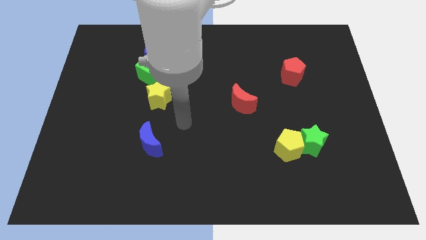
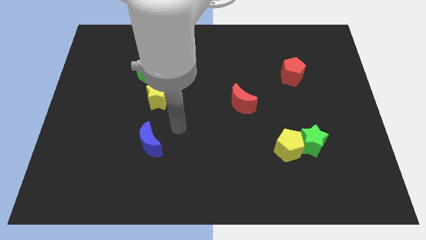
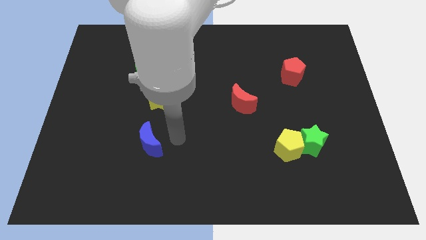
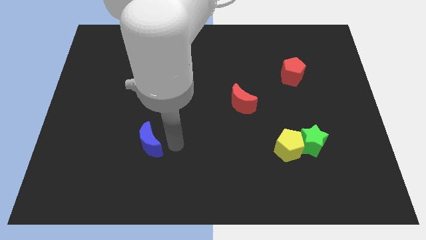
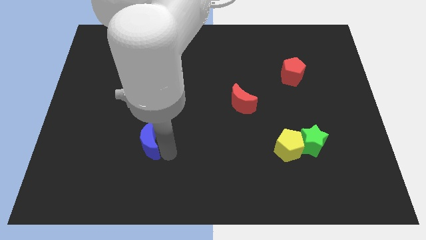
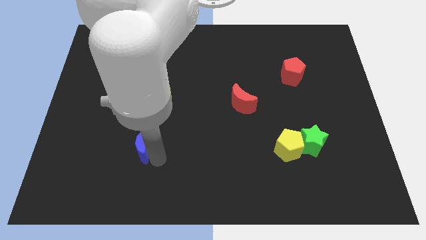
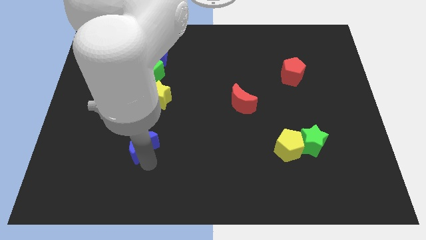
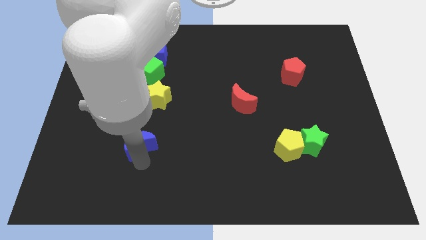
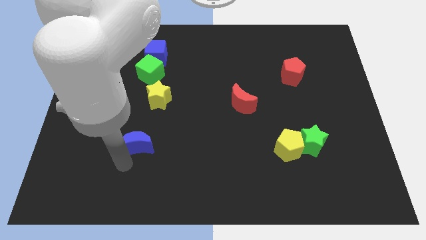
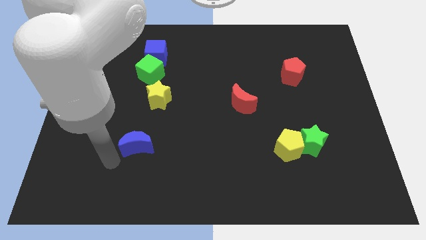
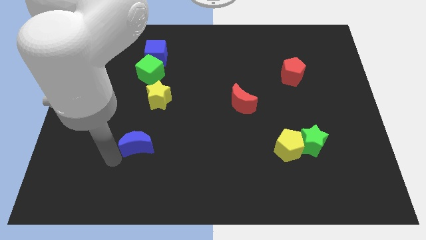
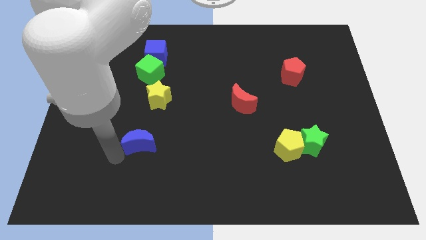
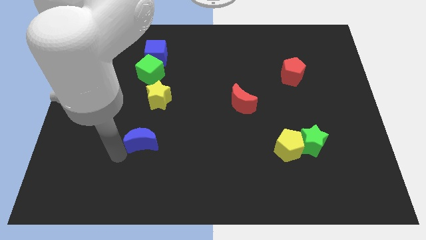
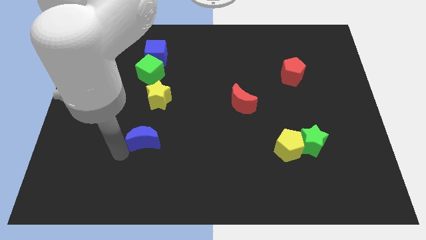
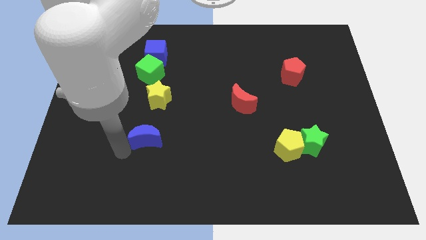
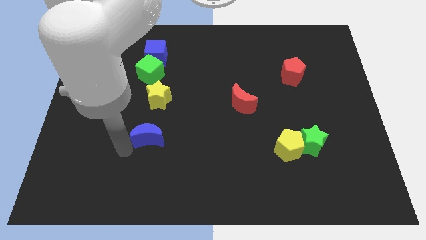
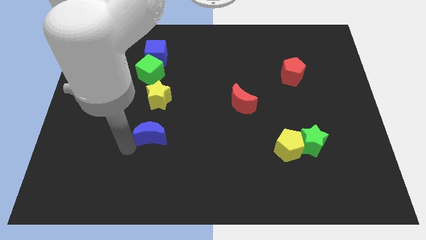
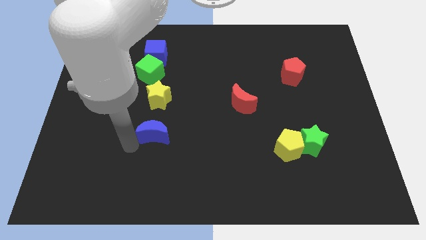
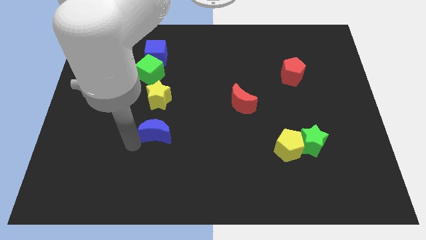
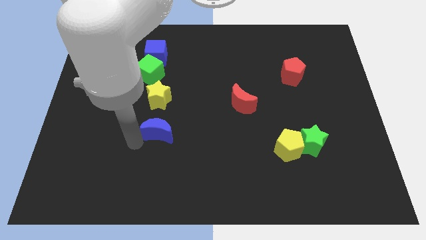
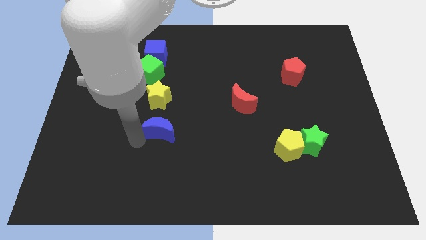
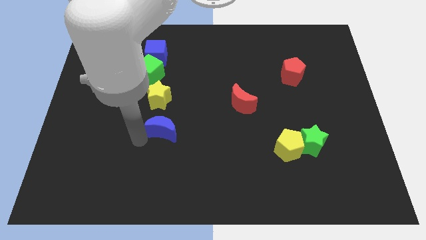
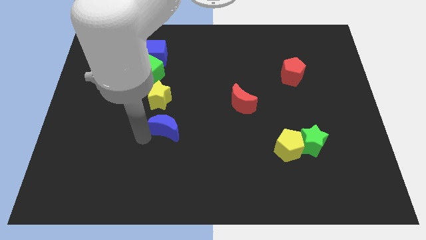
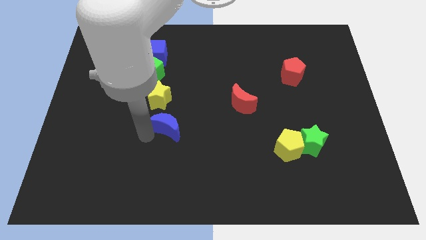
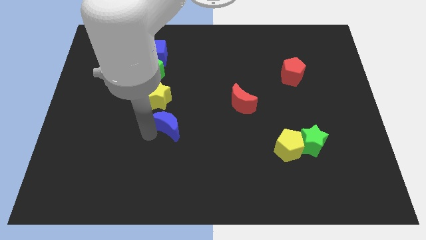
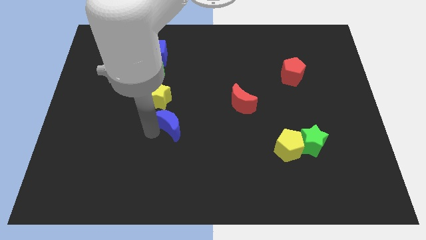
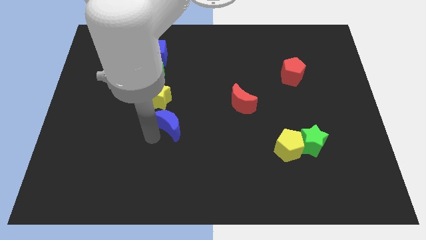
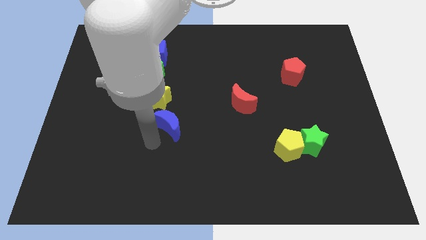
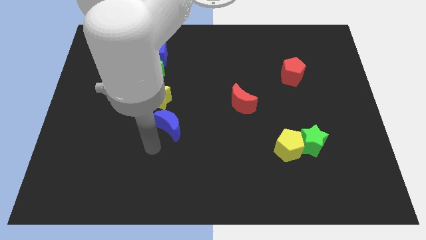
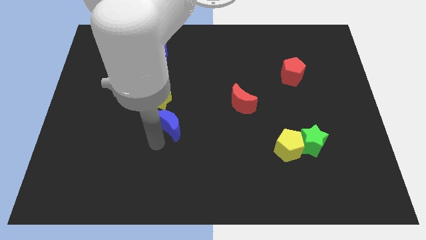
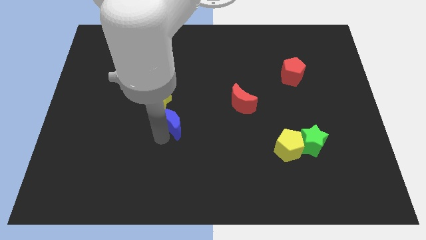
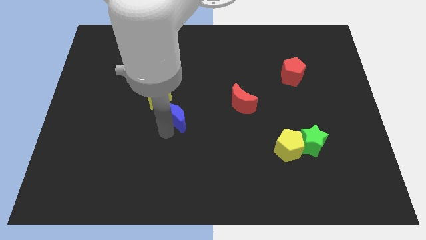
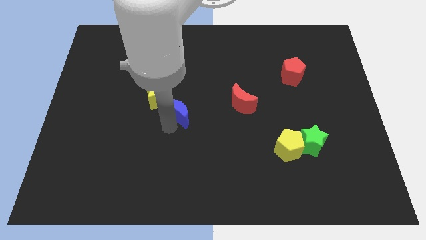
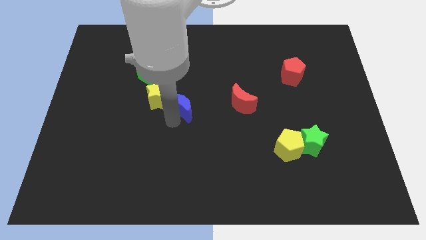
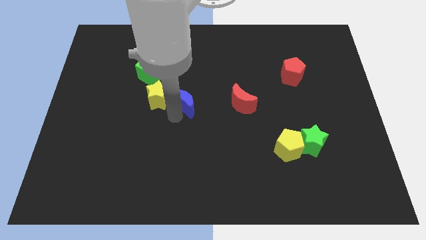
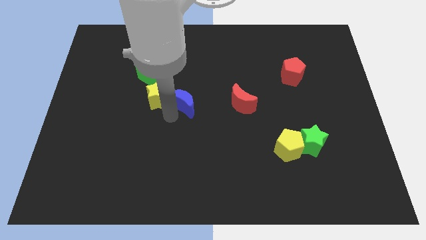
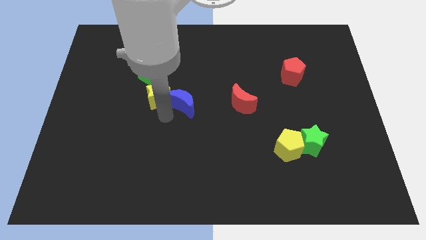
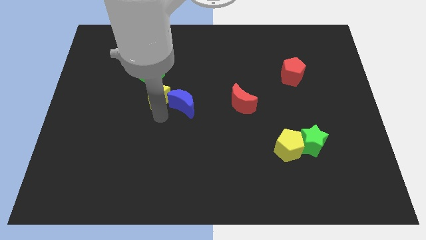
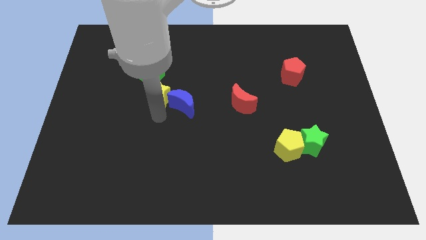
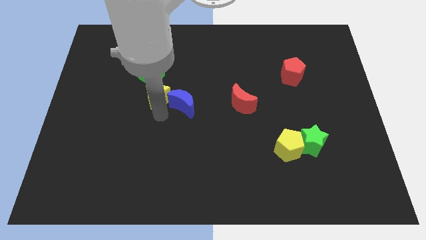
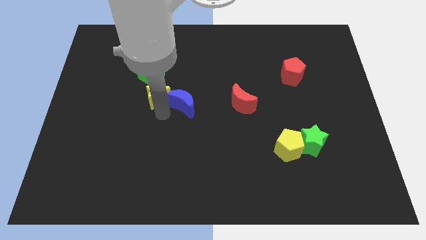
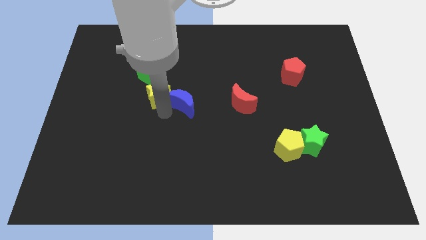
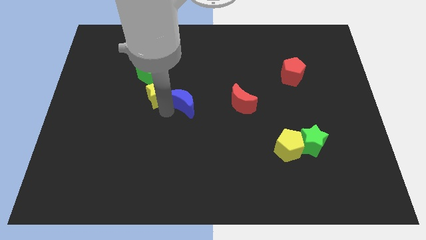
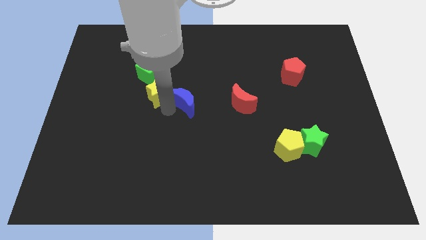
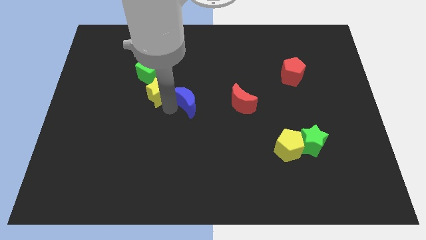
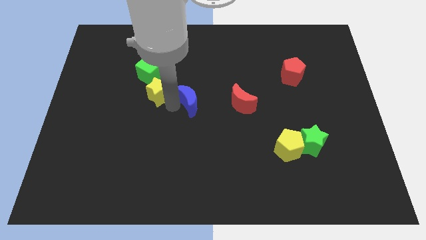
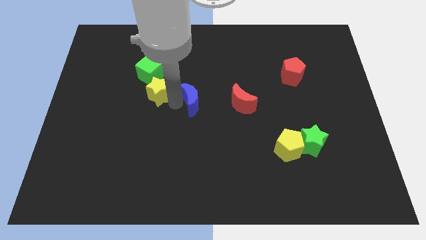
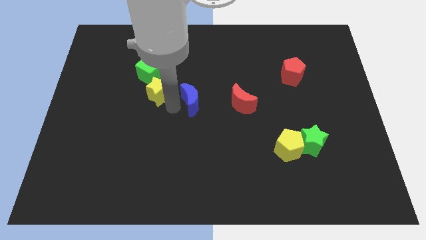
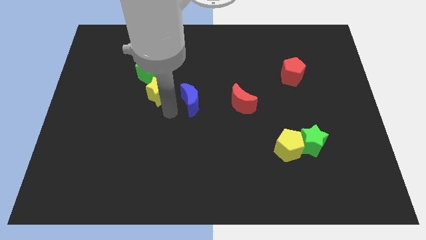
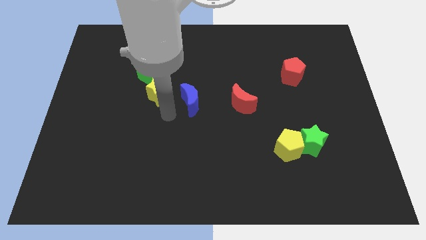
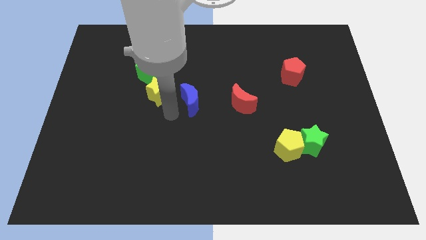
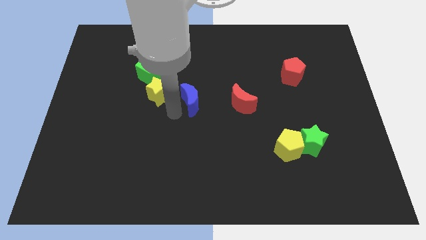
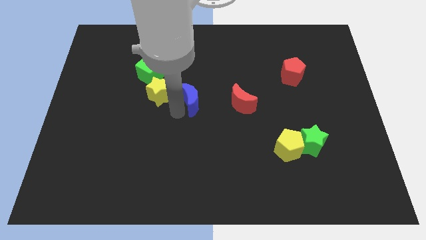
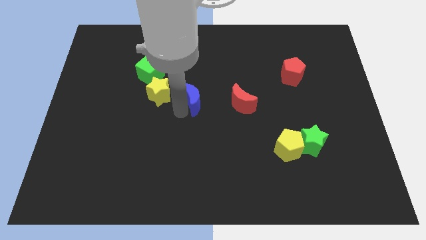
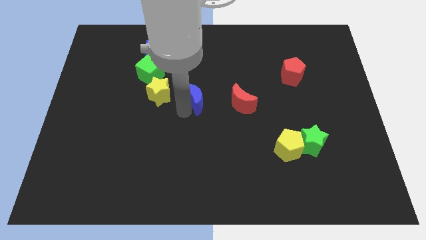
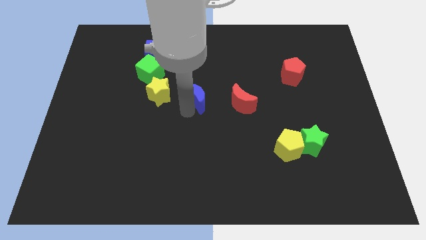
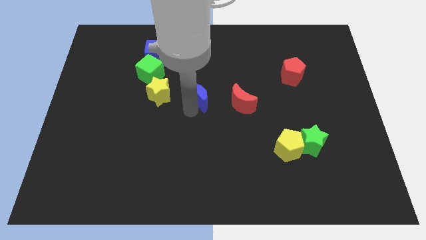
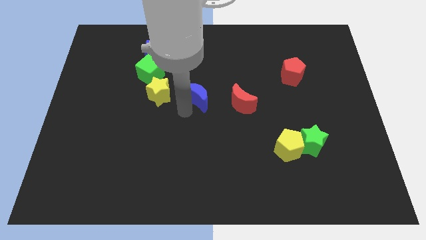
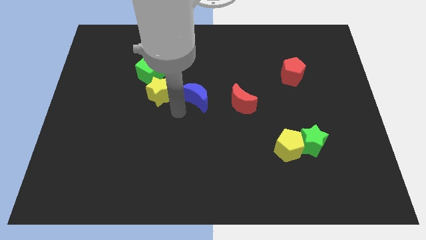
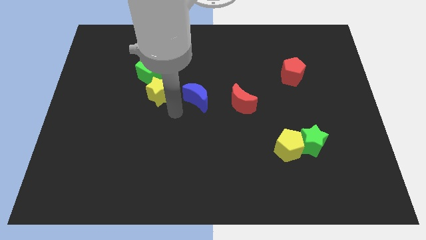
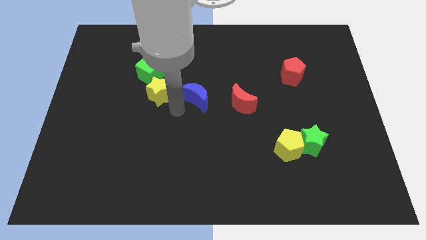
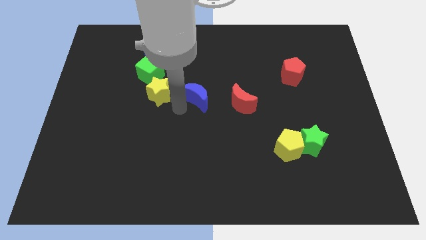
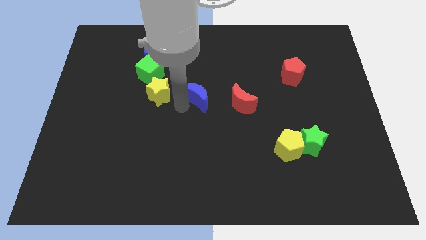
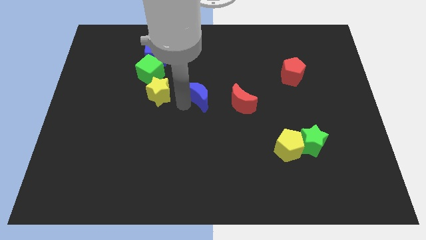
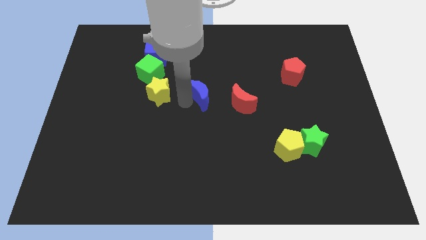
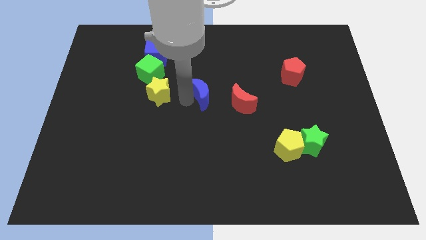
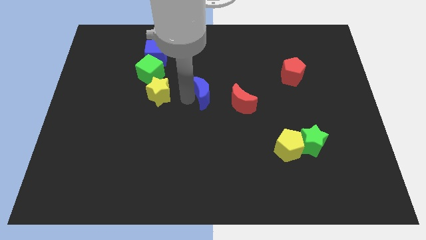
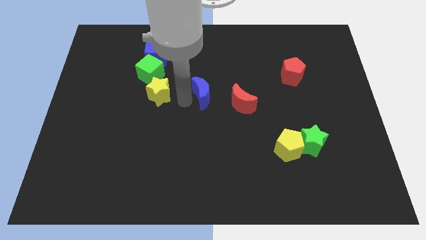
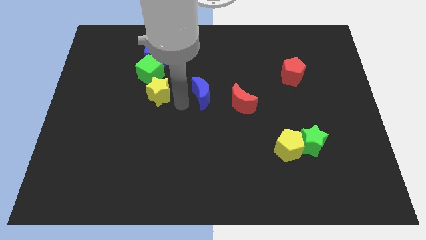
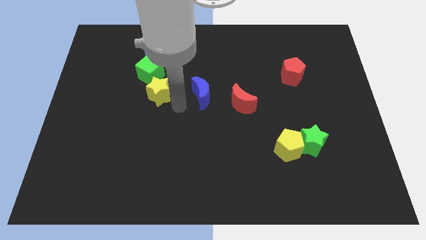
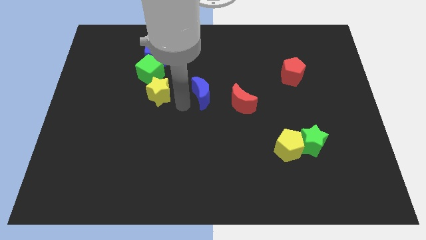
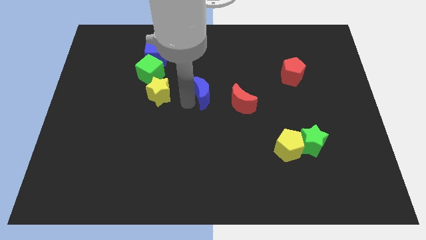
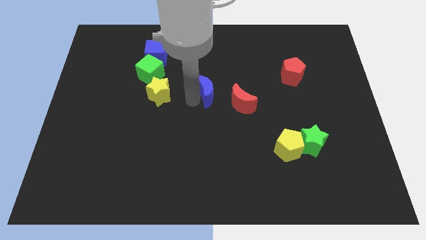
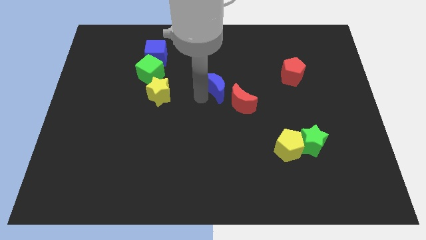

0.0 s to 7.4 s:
slide the blue moon diagonally up and right

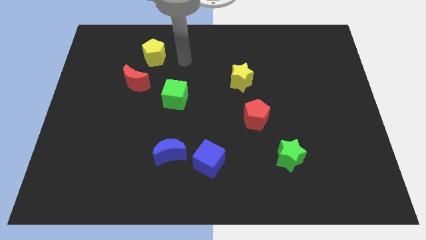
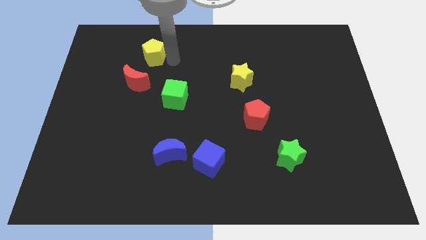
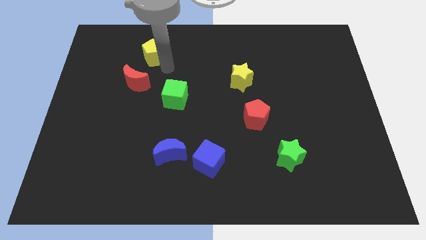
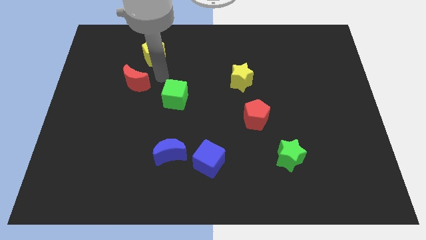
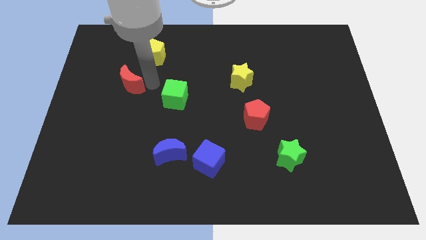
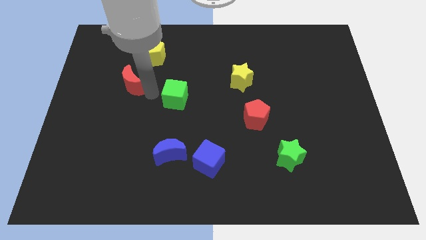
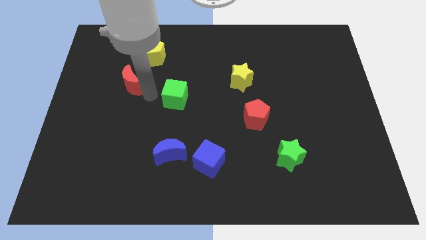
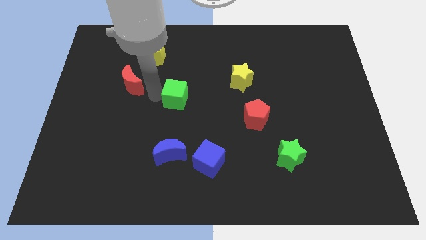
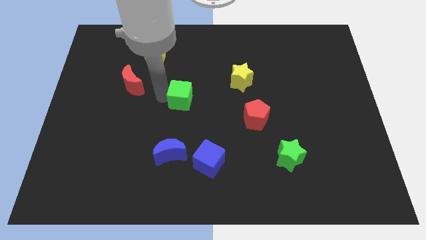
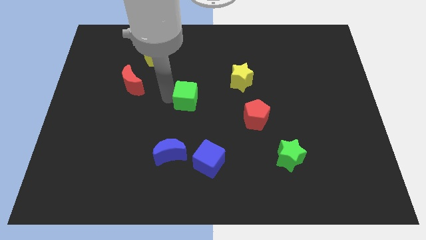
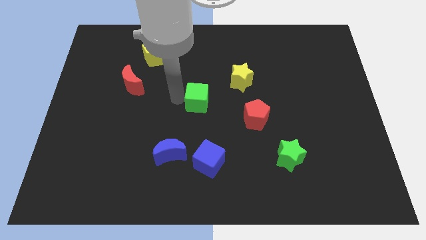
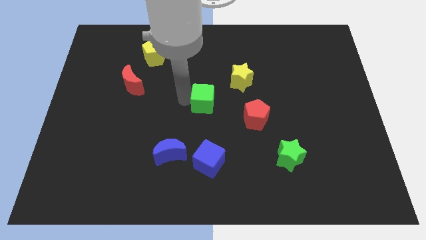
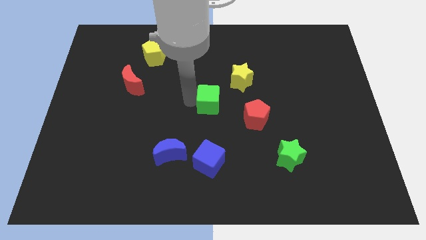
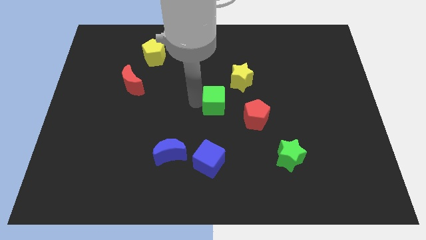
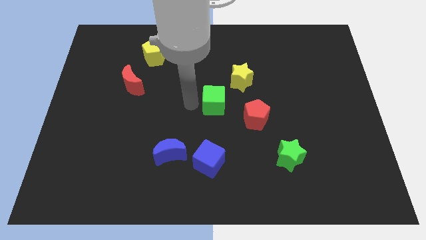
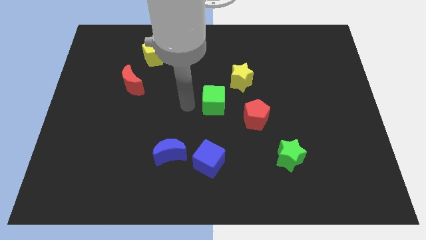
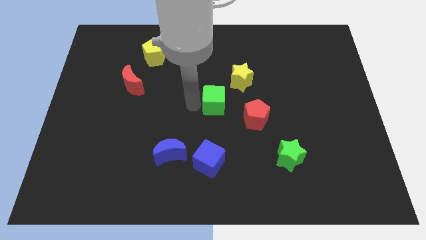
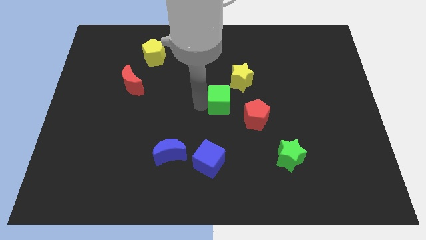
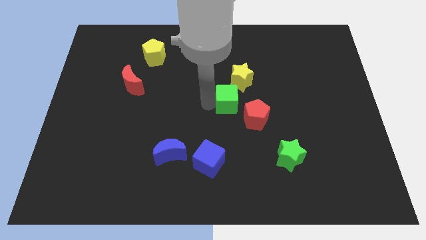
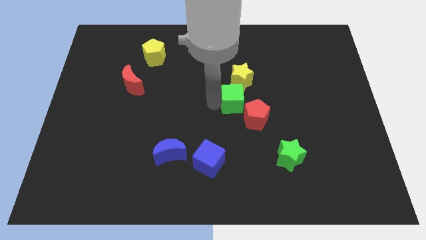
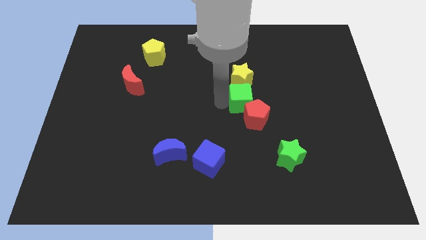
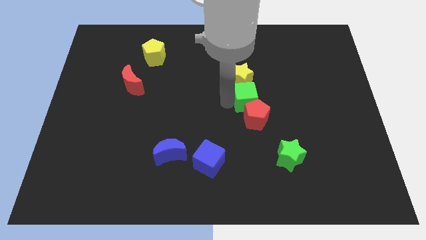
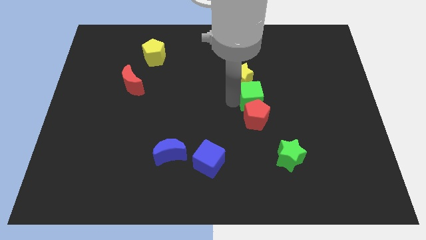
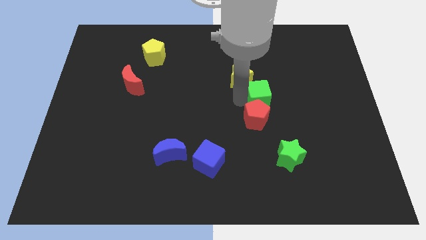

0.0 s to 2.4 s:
push the green cube to the right
